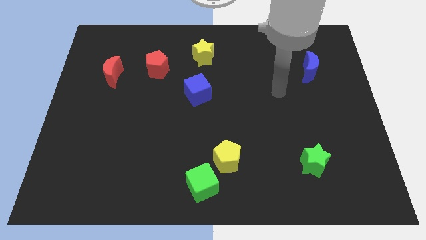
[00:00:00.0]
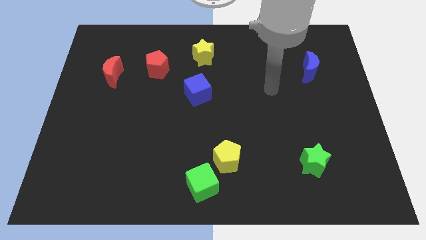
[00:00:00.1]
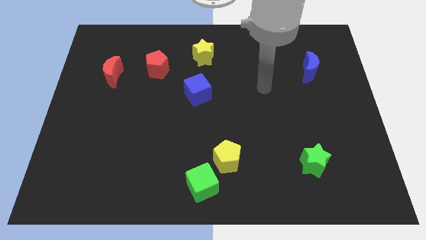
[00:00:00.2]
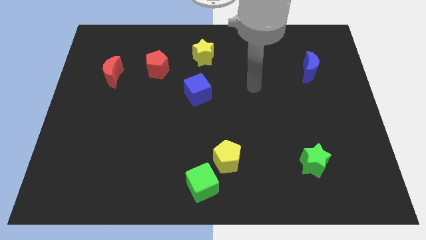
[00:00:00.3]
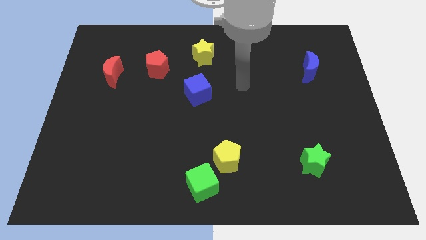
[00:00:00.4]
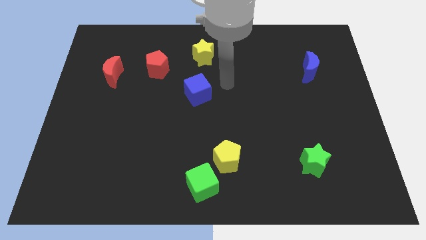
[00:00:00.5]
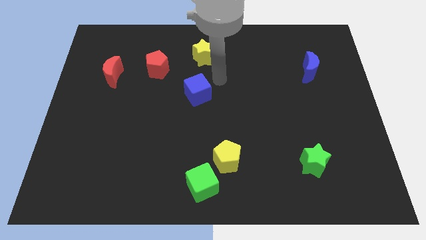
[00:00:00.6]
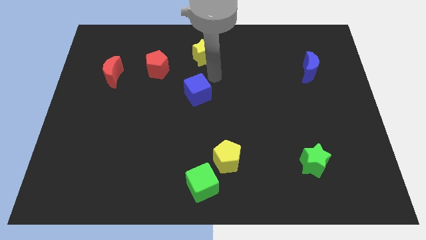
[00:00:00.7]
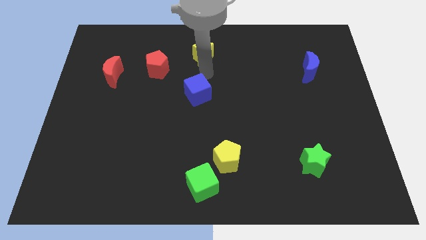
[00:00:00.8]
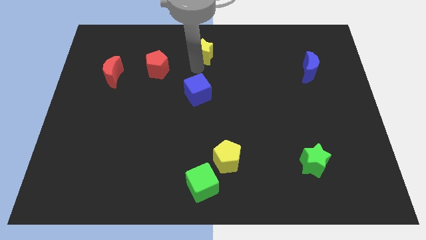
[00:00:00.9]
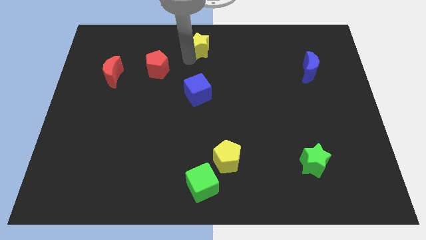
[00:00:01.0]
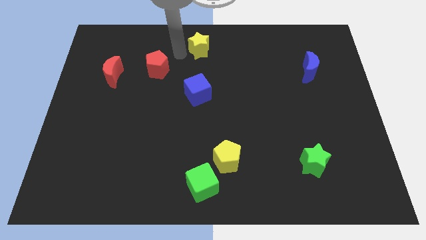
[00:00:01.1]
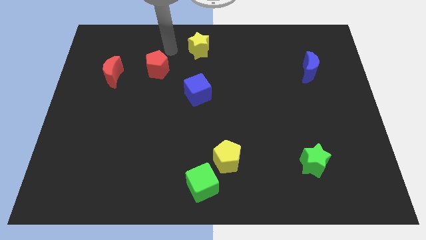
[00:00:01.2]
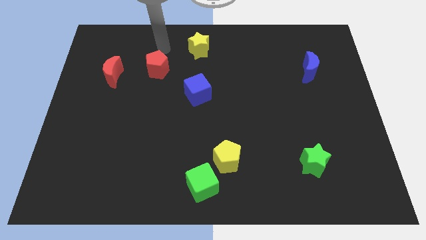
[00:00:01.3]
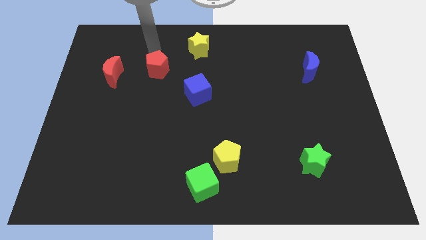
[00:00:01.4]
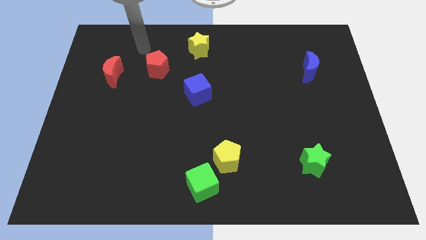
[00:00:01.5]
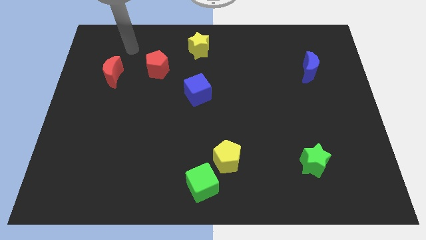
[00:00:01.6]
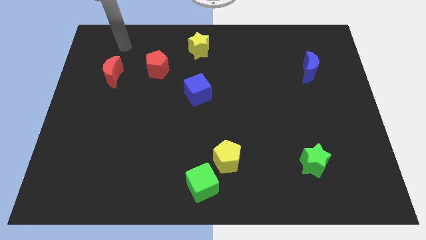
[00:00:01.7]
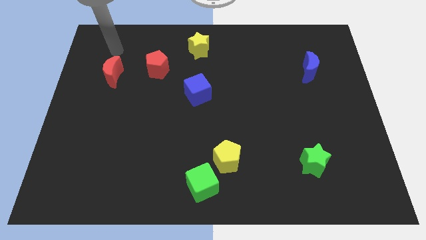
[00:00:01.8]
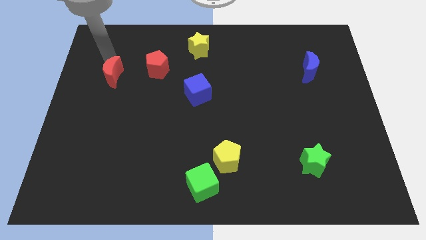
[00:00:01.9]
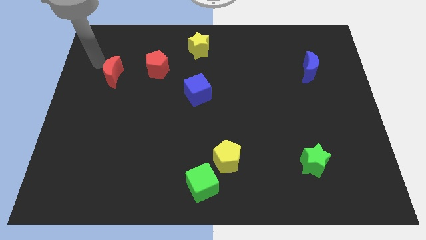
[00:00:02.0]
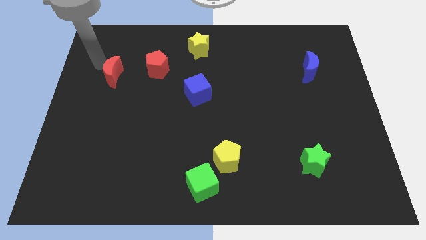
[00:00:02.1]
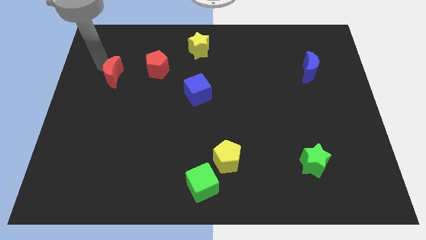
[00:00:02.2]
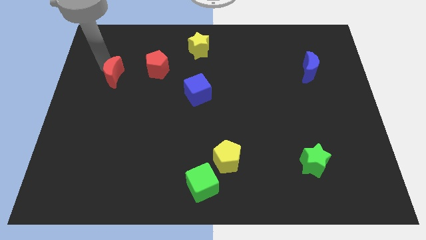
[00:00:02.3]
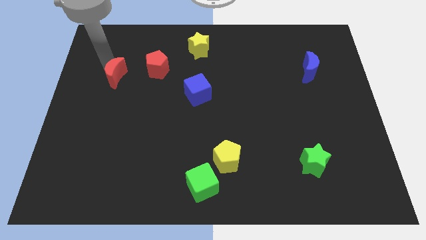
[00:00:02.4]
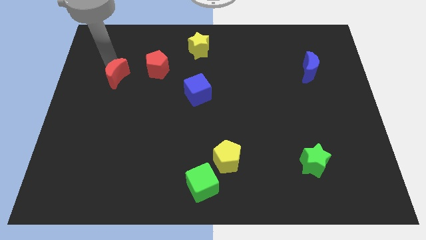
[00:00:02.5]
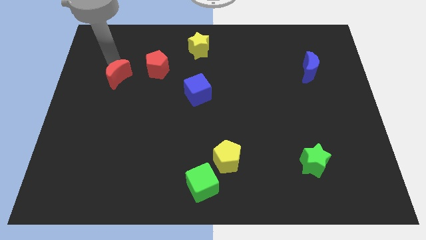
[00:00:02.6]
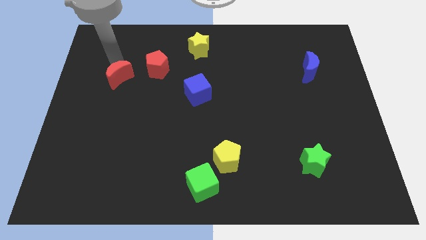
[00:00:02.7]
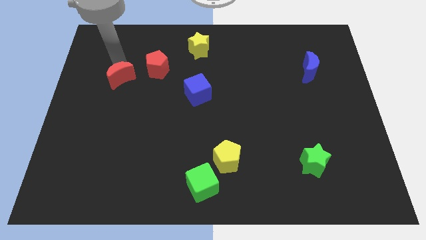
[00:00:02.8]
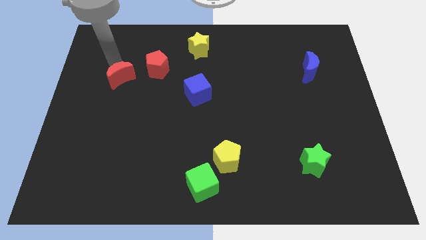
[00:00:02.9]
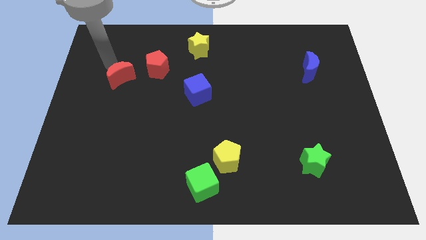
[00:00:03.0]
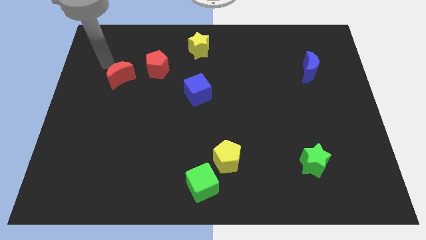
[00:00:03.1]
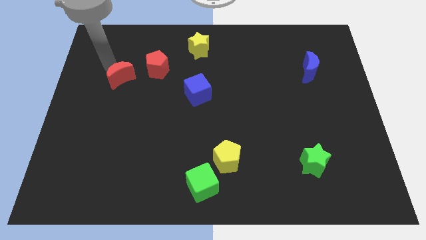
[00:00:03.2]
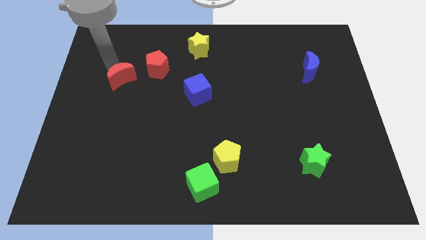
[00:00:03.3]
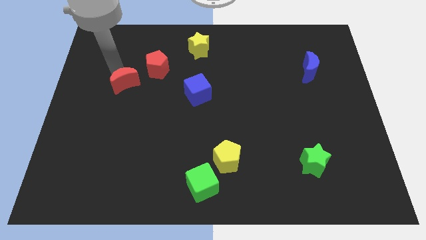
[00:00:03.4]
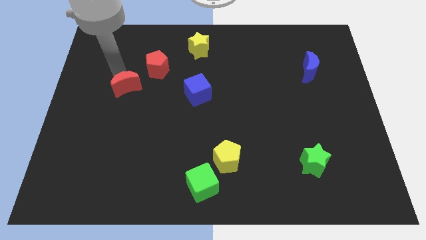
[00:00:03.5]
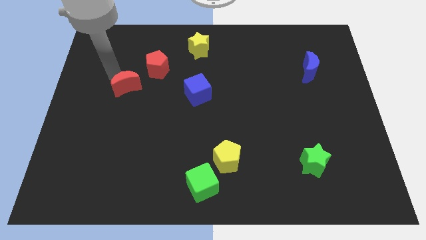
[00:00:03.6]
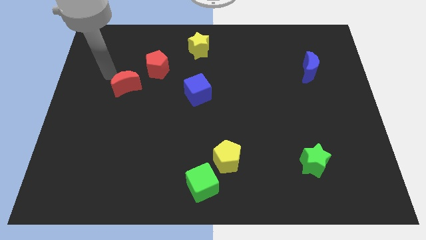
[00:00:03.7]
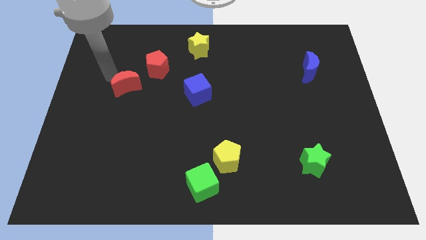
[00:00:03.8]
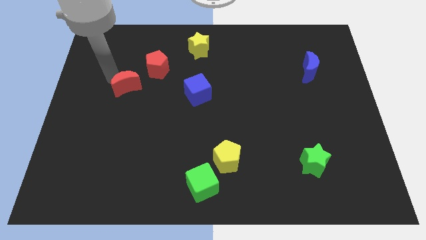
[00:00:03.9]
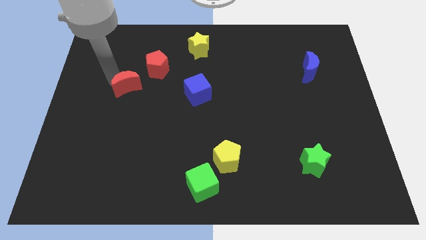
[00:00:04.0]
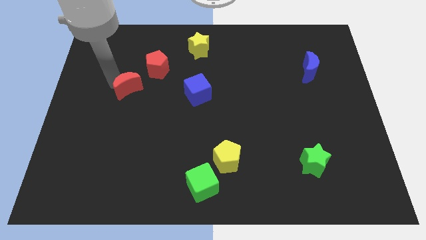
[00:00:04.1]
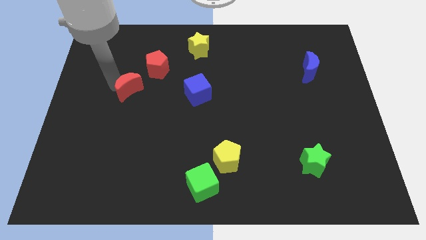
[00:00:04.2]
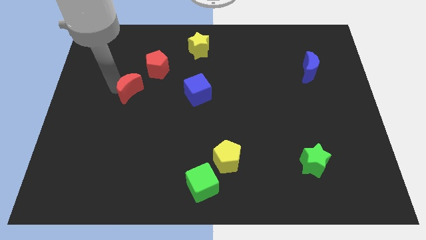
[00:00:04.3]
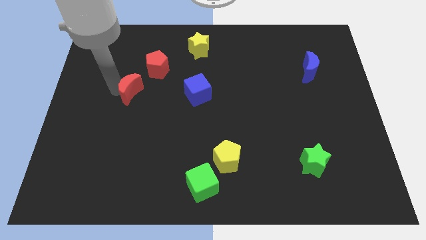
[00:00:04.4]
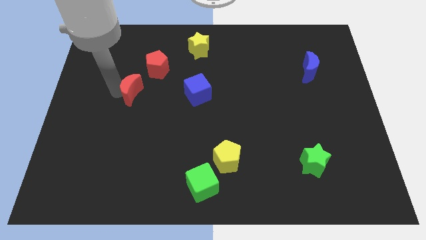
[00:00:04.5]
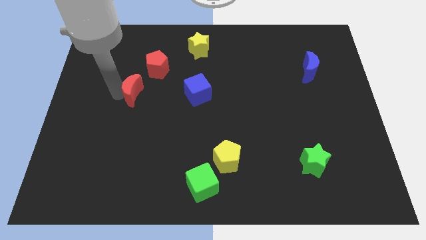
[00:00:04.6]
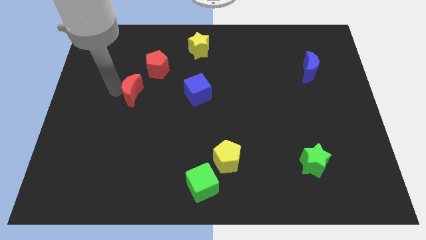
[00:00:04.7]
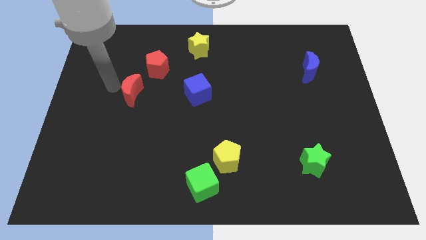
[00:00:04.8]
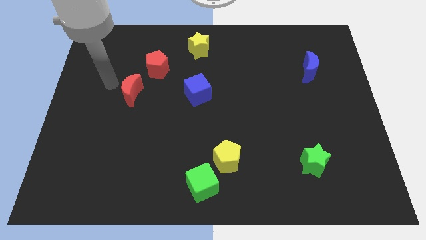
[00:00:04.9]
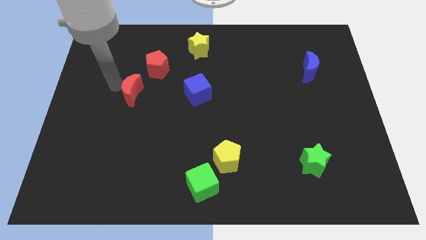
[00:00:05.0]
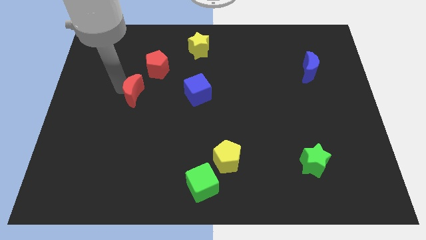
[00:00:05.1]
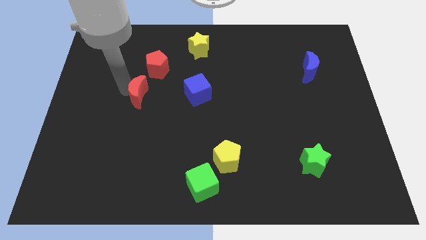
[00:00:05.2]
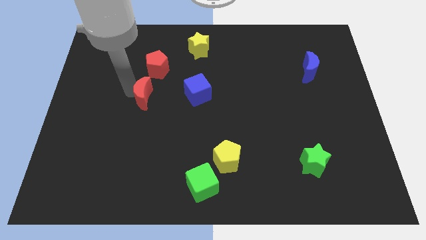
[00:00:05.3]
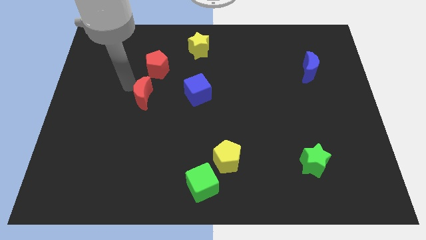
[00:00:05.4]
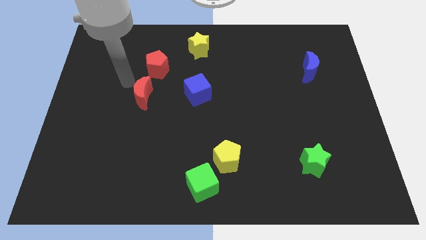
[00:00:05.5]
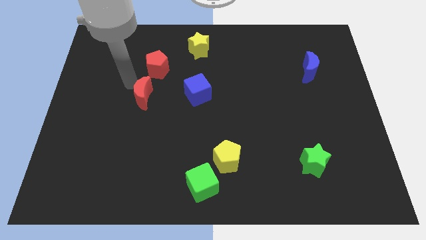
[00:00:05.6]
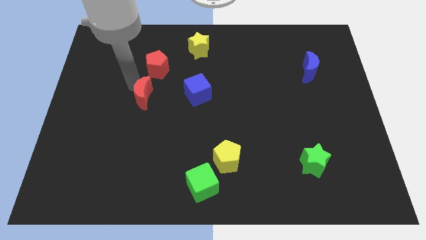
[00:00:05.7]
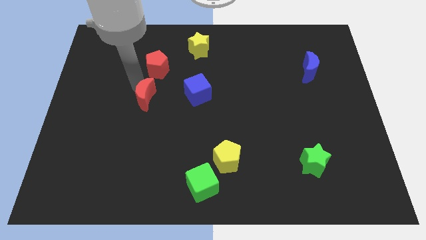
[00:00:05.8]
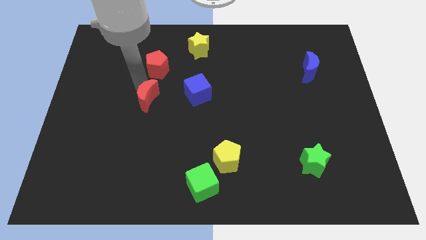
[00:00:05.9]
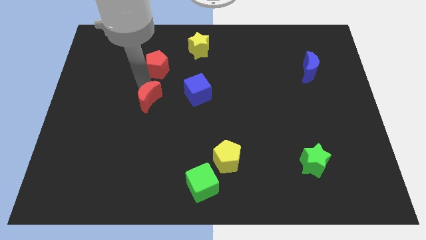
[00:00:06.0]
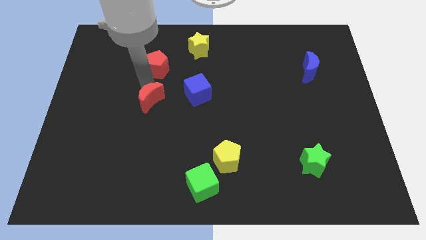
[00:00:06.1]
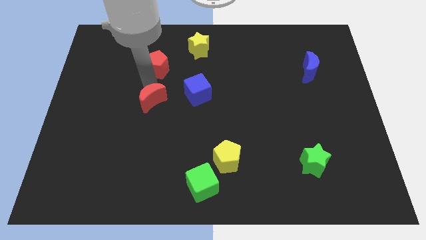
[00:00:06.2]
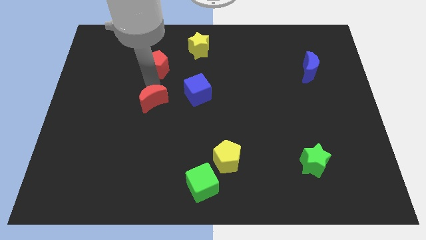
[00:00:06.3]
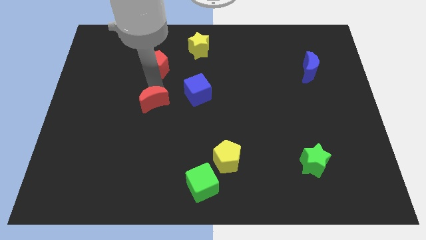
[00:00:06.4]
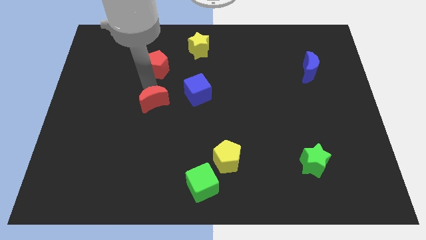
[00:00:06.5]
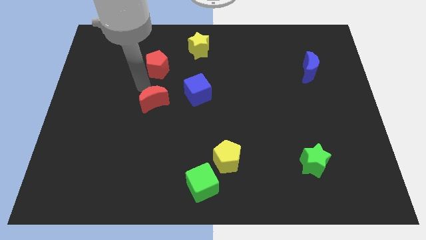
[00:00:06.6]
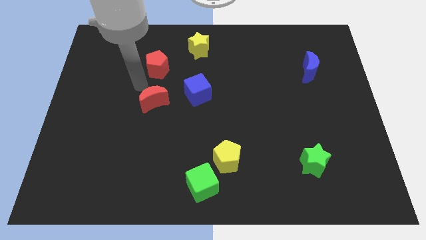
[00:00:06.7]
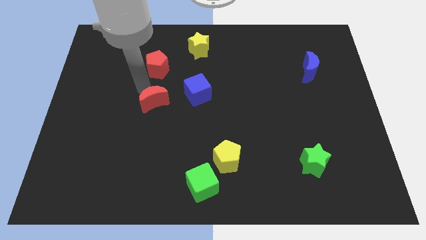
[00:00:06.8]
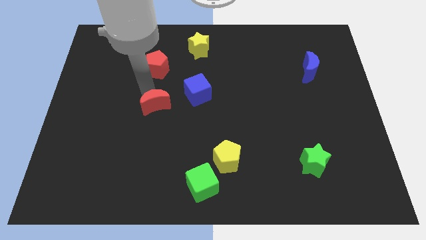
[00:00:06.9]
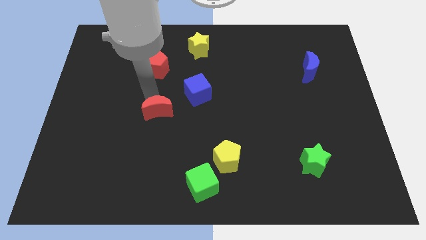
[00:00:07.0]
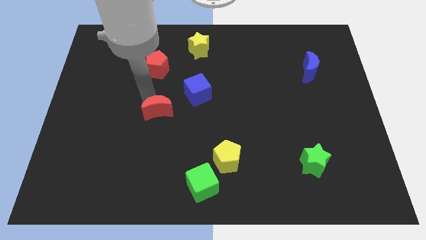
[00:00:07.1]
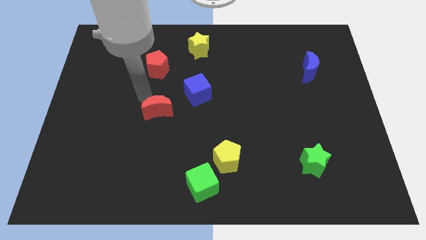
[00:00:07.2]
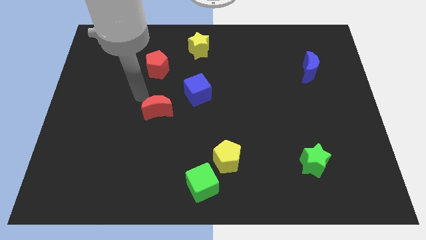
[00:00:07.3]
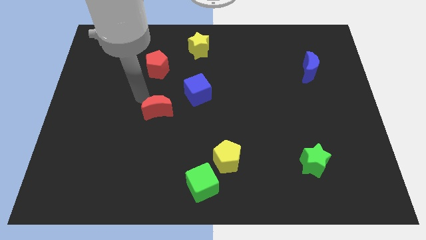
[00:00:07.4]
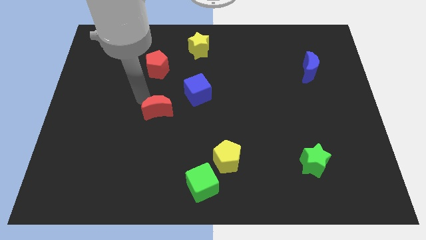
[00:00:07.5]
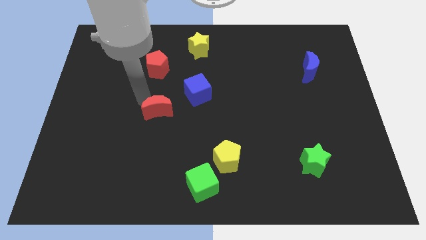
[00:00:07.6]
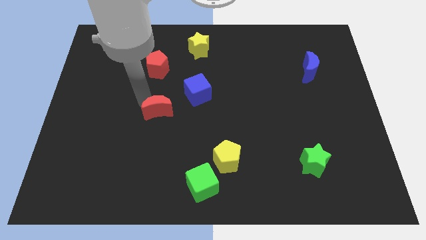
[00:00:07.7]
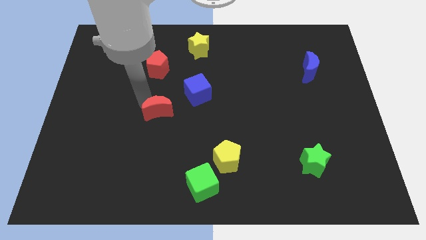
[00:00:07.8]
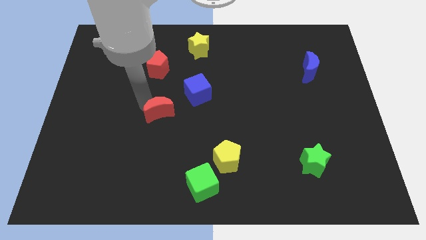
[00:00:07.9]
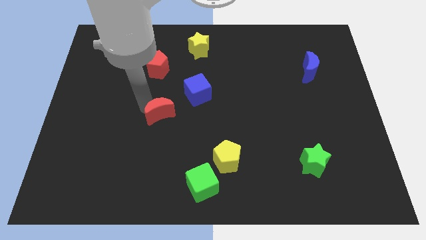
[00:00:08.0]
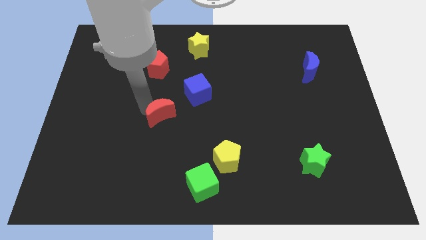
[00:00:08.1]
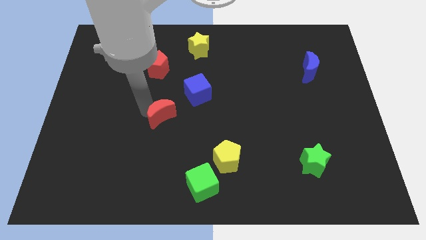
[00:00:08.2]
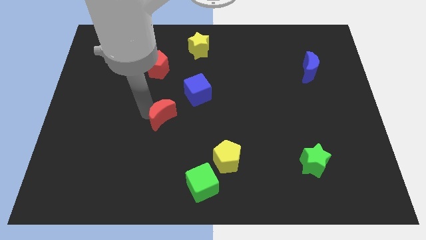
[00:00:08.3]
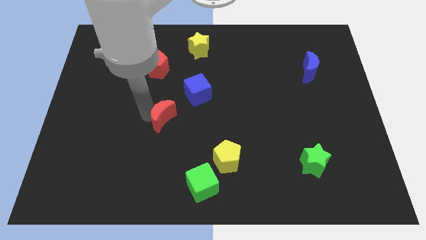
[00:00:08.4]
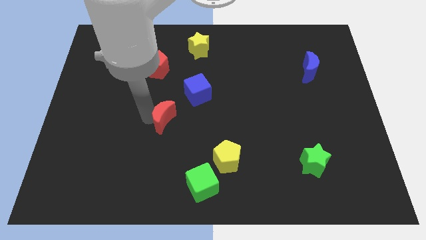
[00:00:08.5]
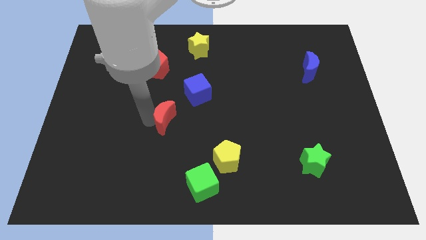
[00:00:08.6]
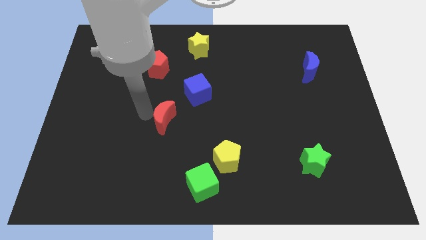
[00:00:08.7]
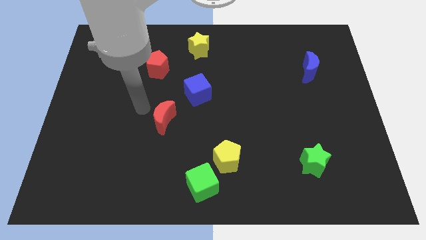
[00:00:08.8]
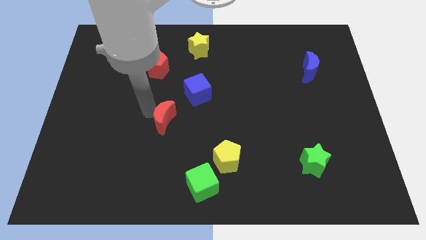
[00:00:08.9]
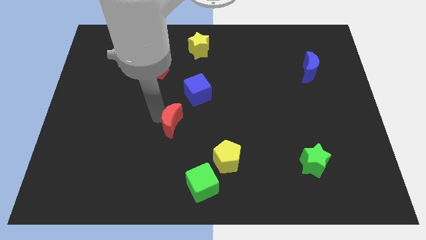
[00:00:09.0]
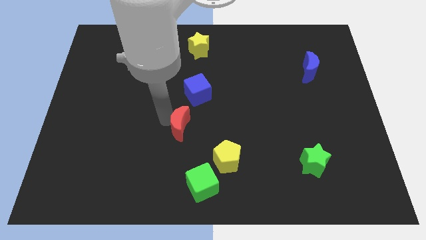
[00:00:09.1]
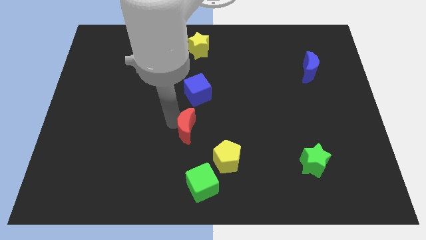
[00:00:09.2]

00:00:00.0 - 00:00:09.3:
push the red moon to the top left side of the yellow pentagon
